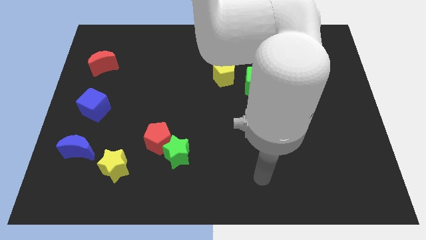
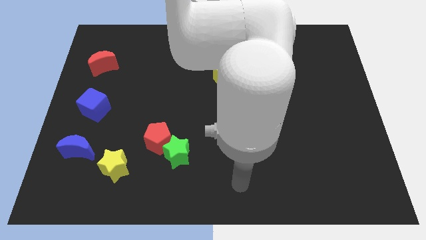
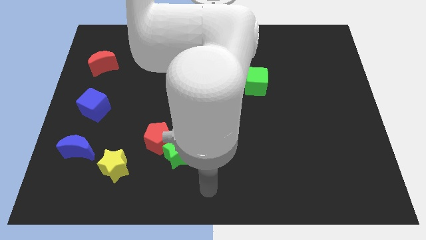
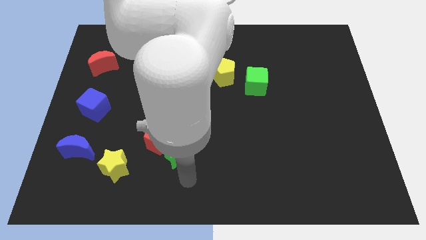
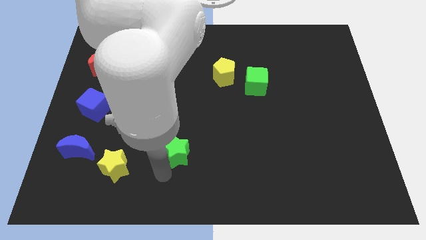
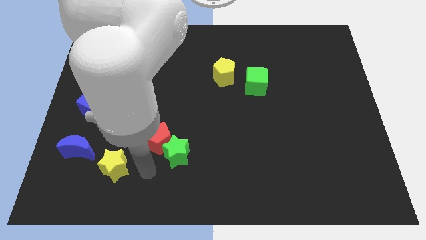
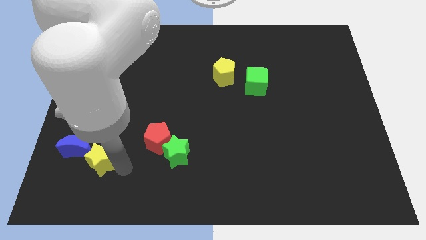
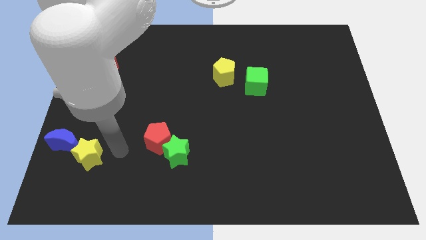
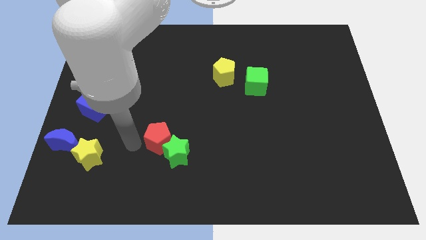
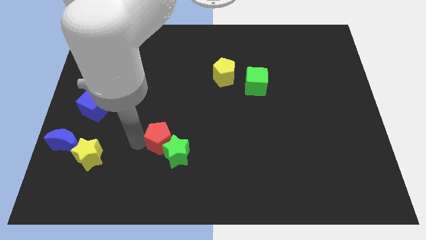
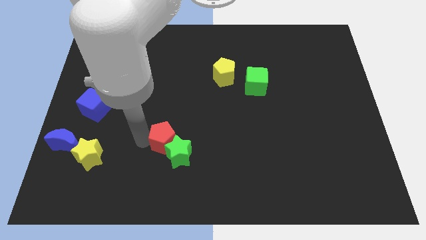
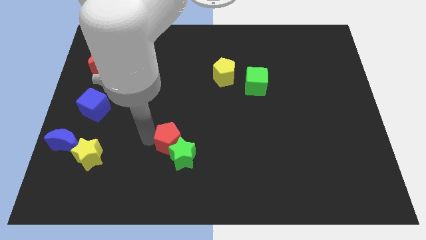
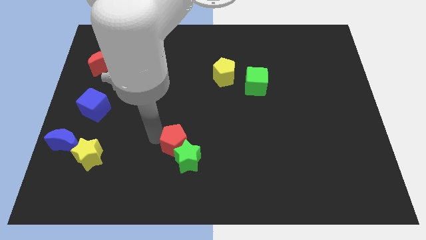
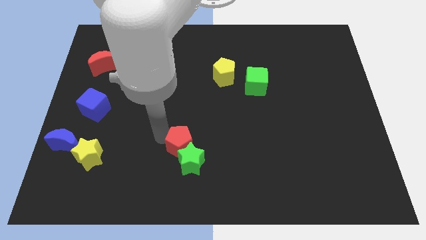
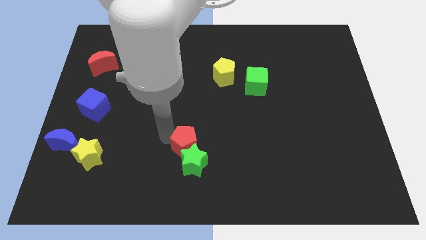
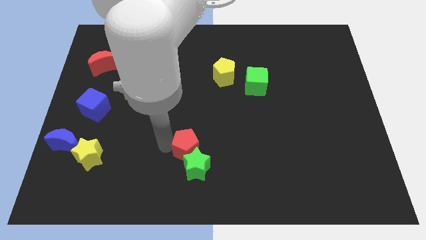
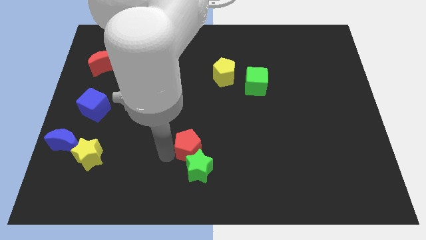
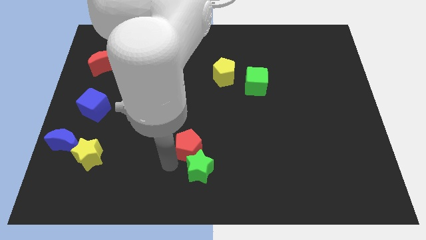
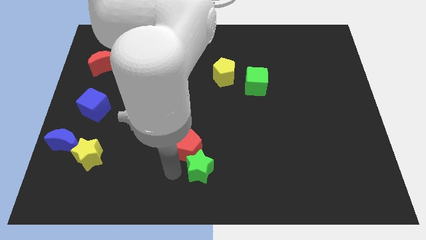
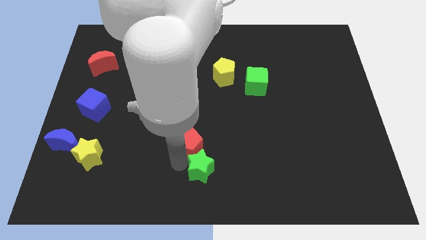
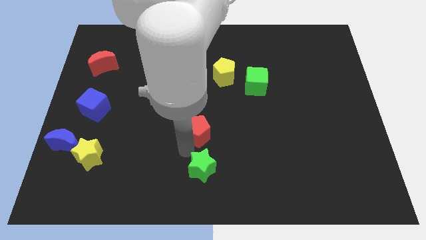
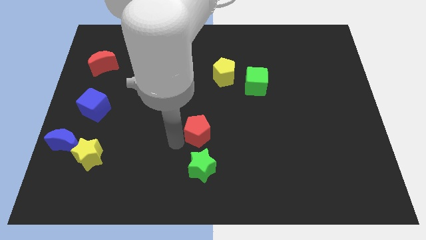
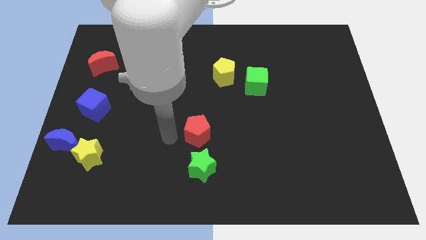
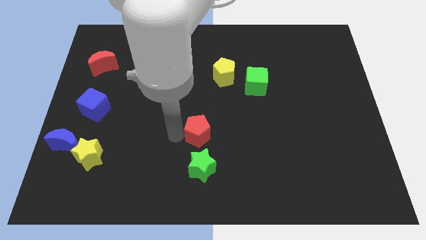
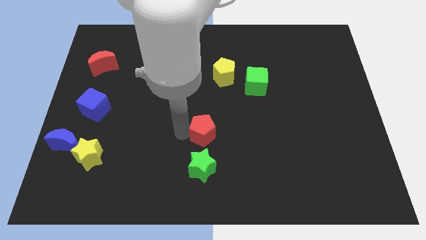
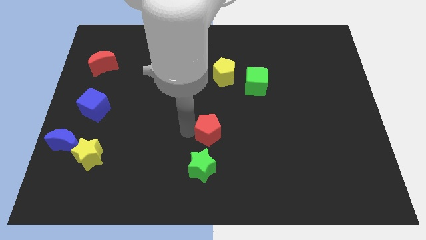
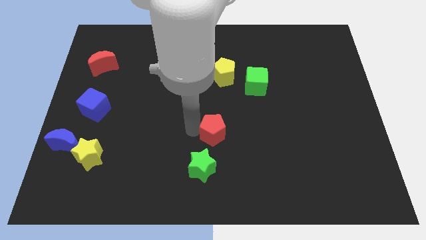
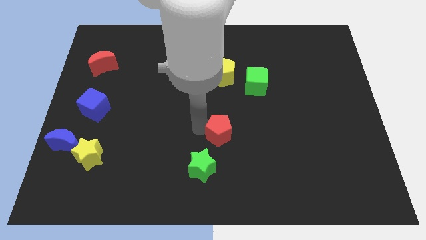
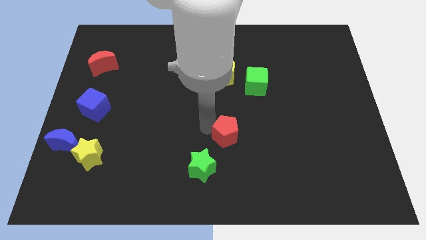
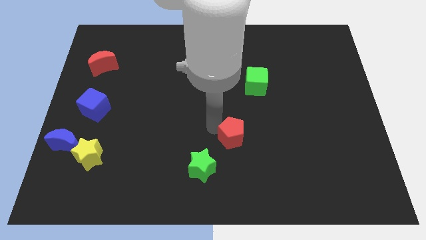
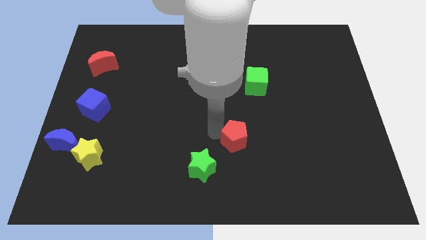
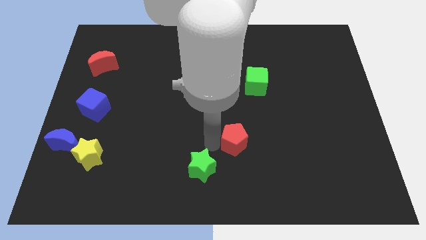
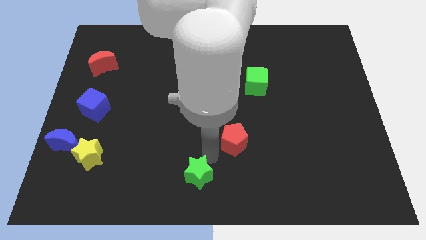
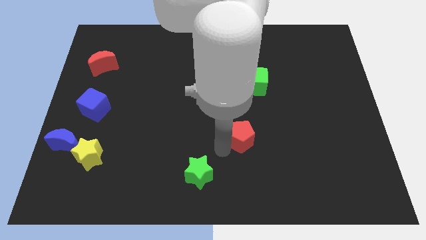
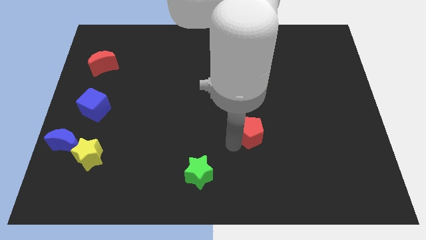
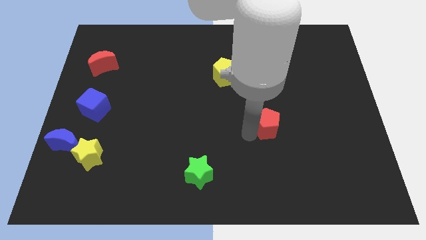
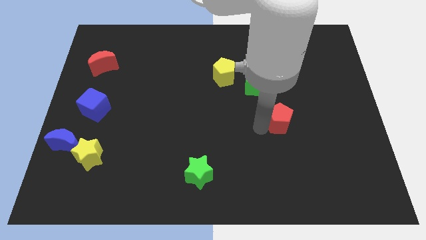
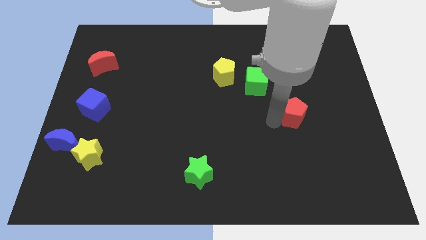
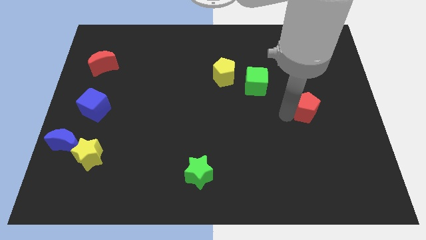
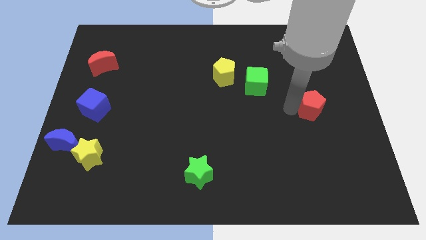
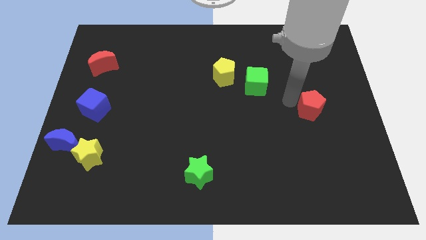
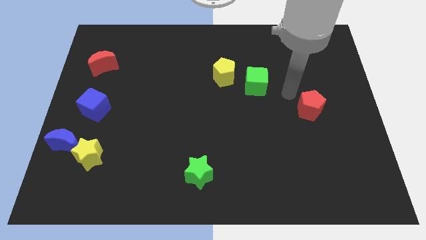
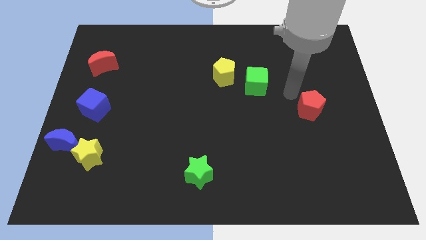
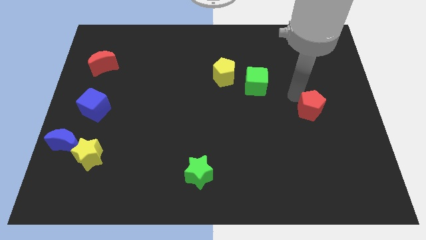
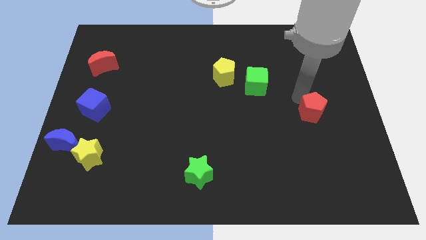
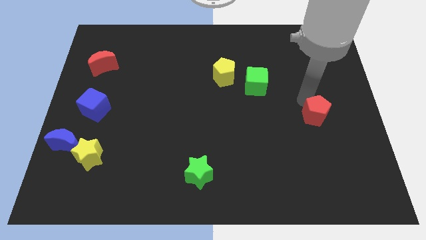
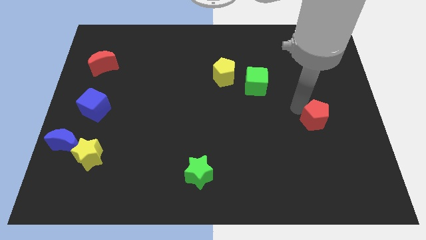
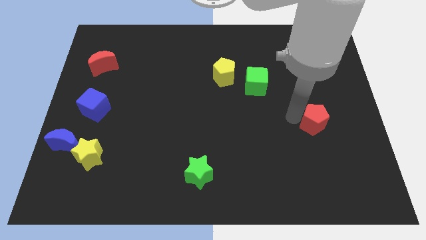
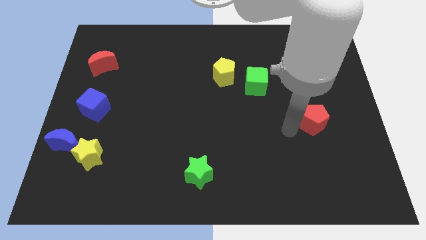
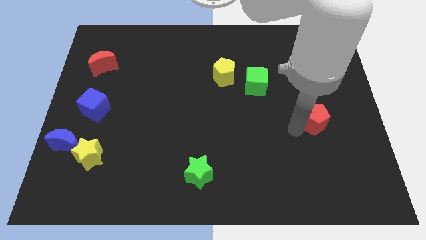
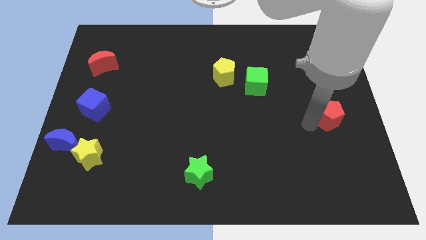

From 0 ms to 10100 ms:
put the red pentagon to the center right

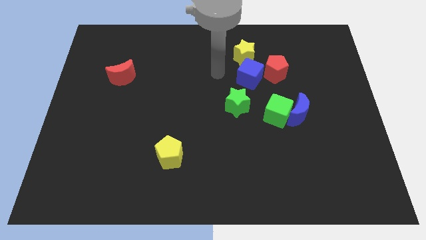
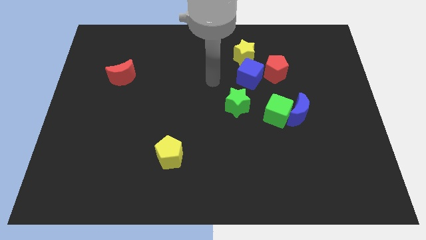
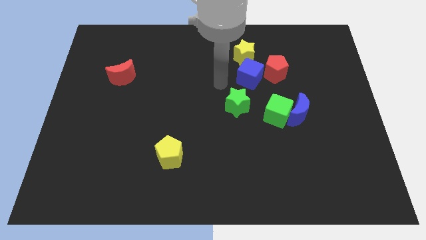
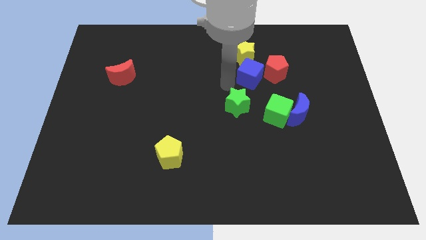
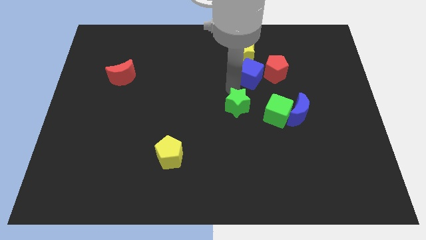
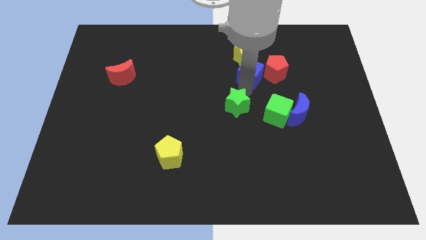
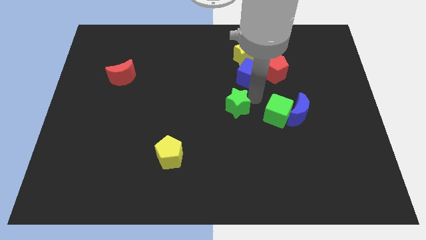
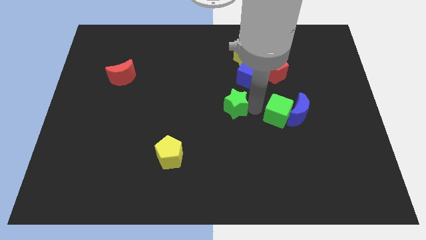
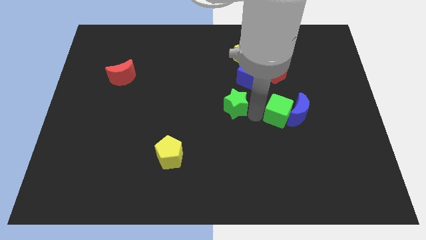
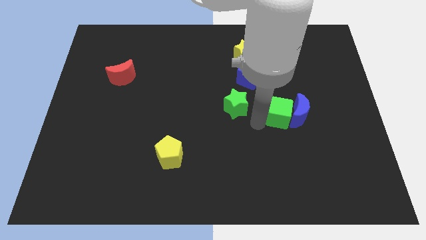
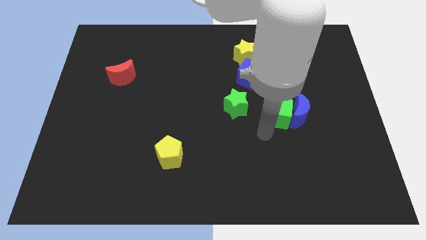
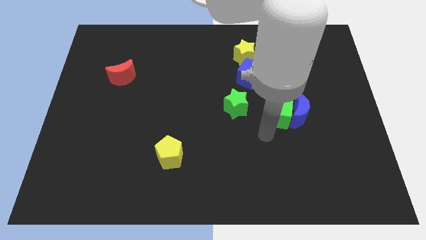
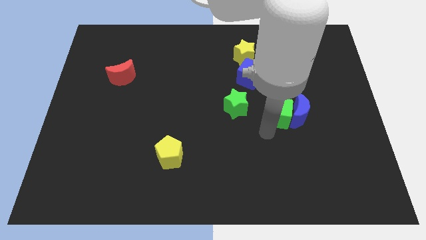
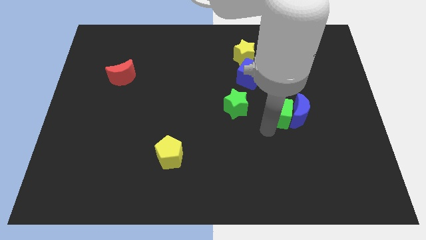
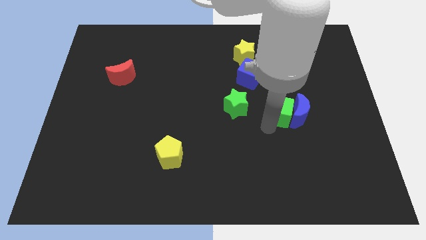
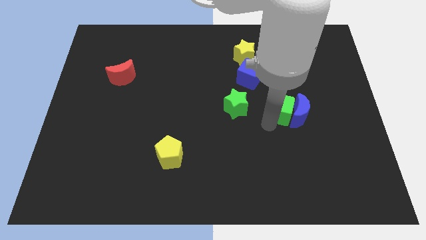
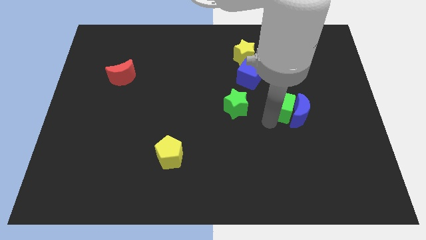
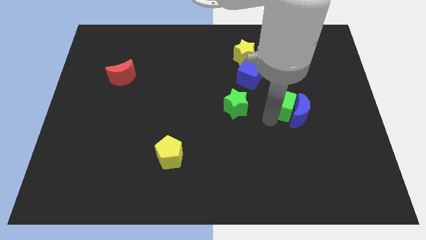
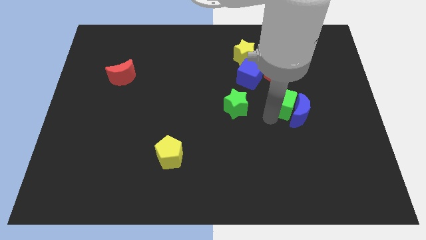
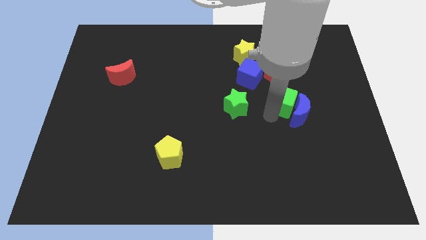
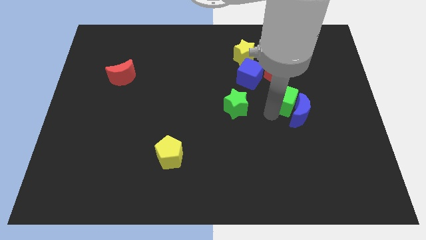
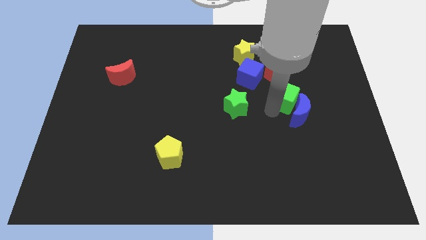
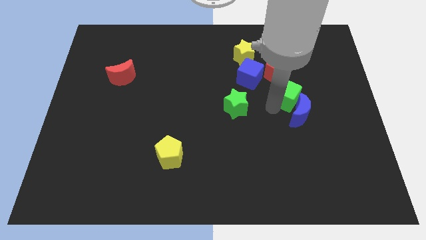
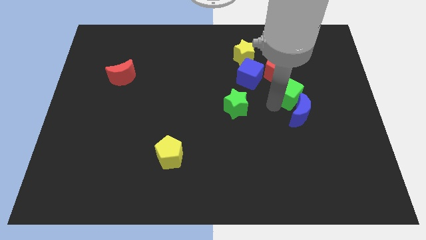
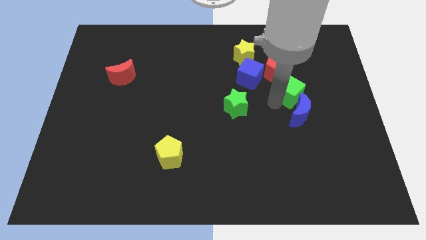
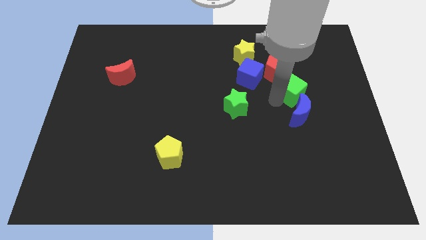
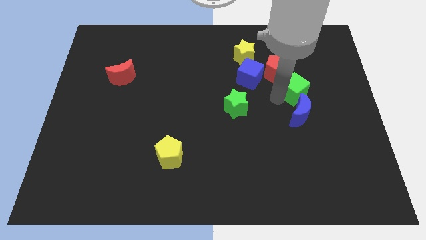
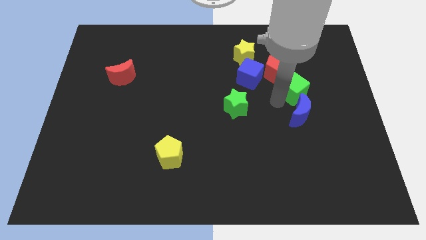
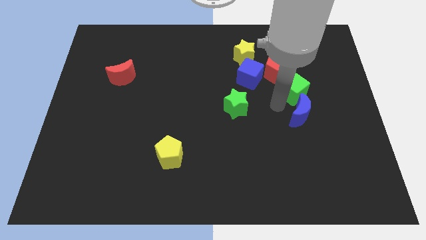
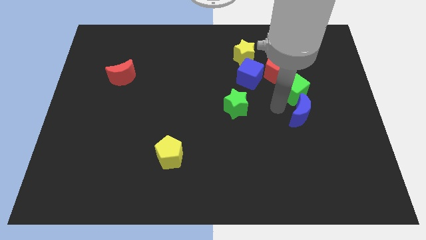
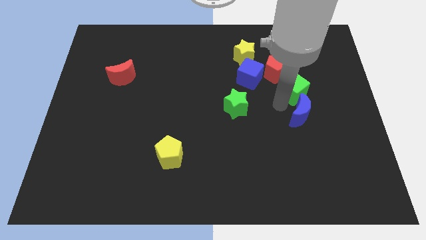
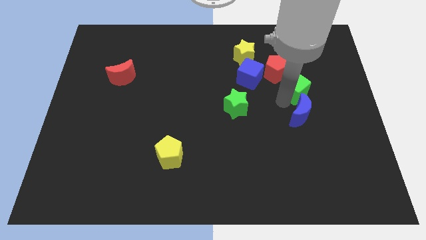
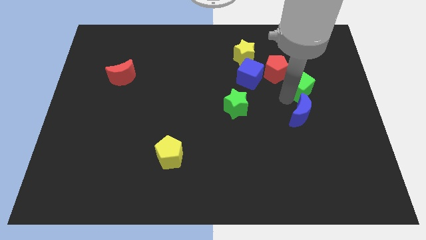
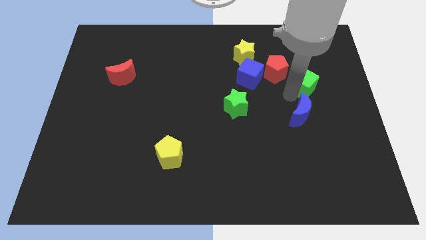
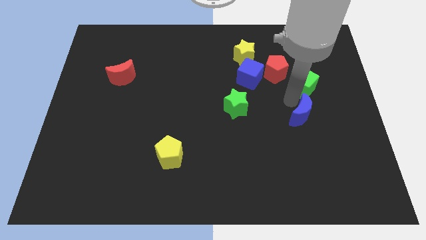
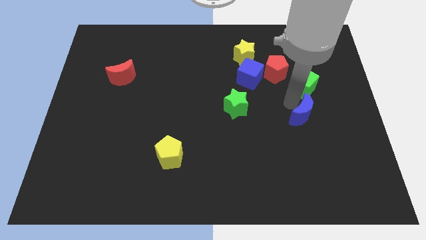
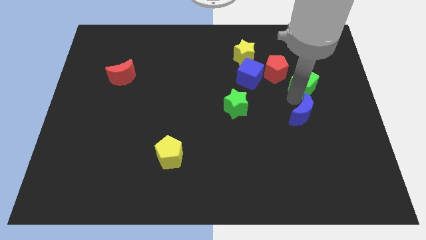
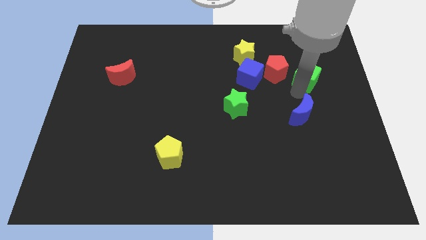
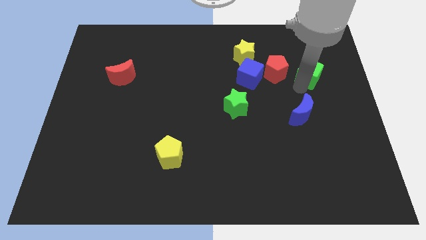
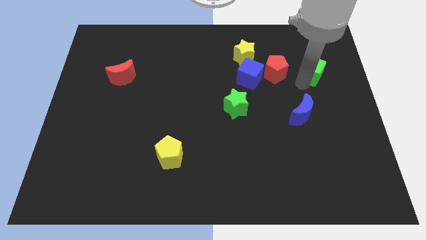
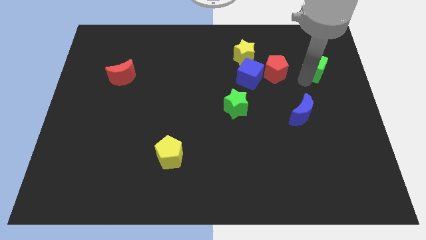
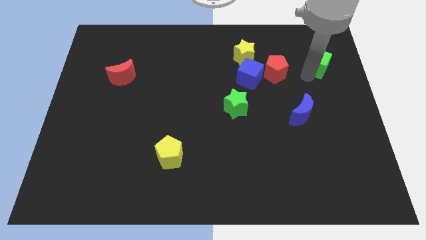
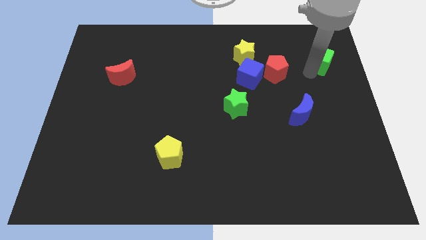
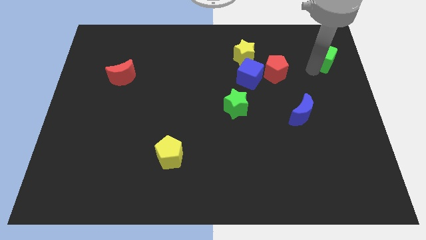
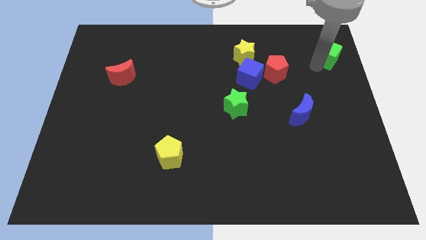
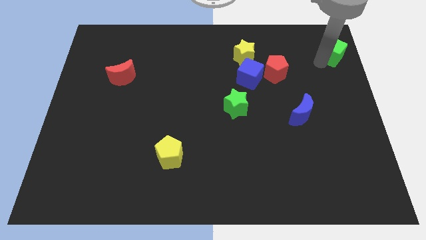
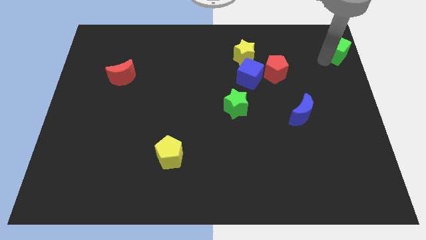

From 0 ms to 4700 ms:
slide the green cube to the top right corner
